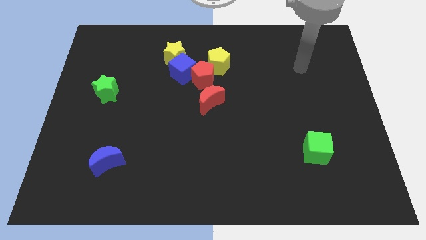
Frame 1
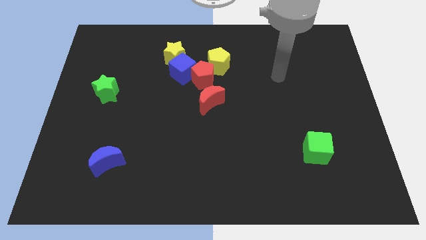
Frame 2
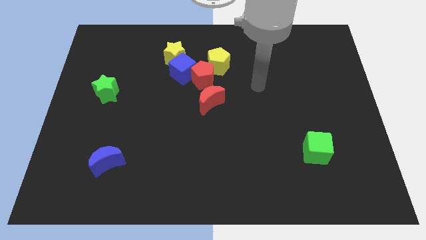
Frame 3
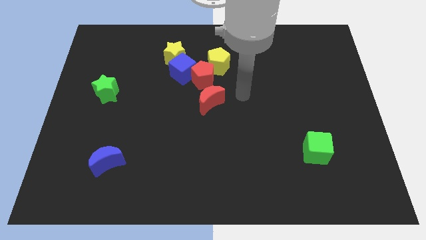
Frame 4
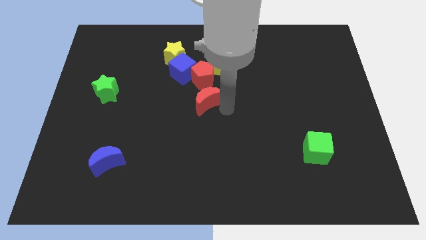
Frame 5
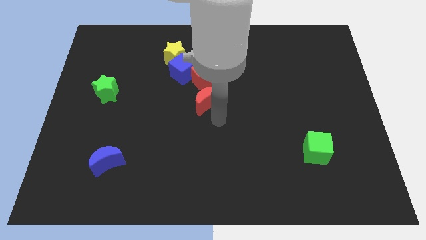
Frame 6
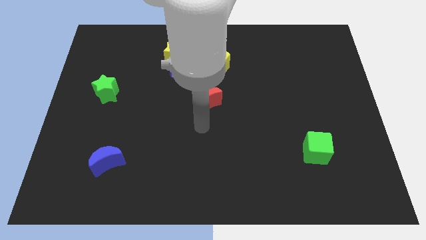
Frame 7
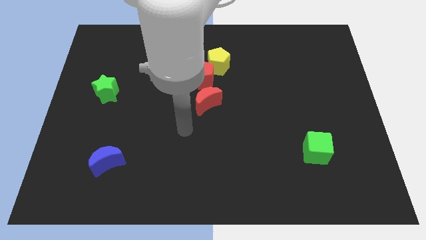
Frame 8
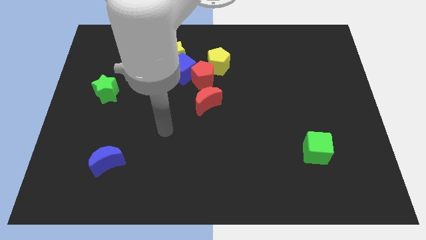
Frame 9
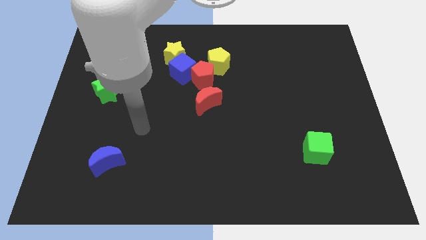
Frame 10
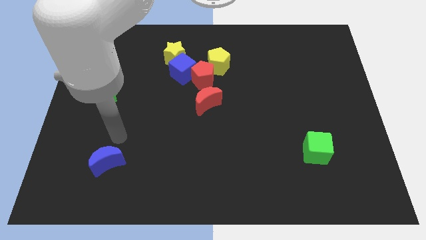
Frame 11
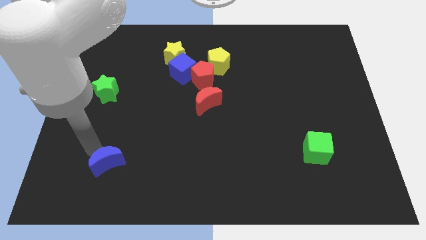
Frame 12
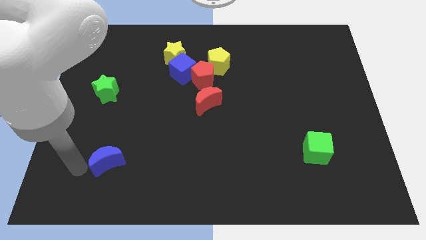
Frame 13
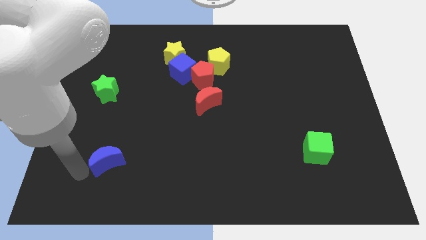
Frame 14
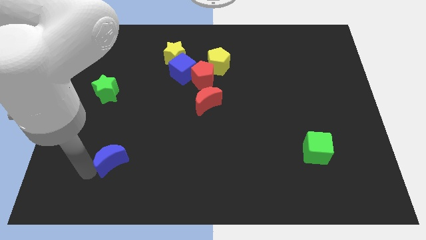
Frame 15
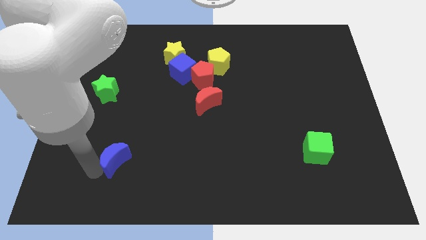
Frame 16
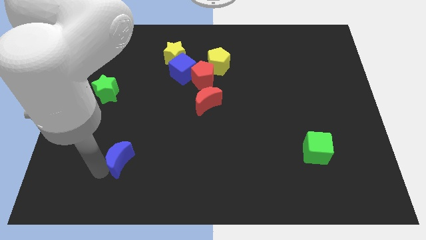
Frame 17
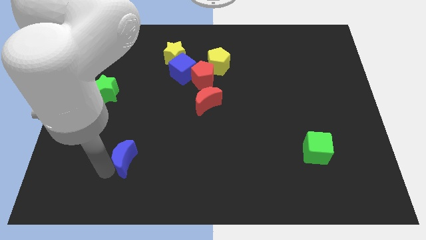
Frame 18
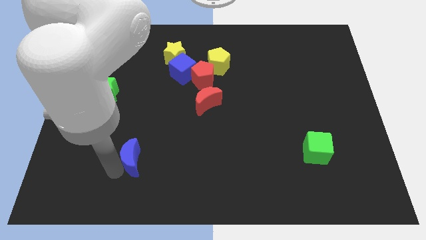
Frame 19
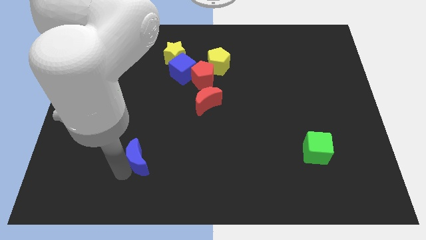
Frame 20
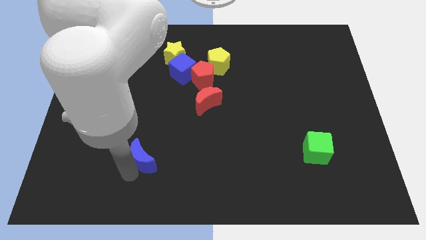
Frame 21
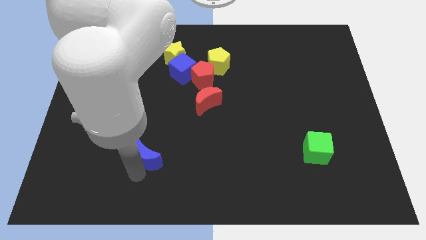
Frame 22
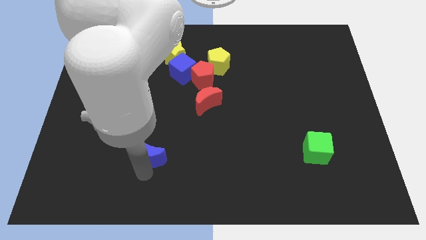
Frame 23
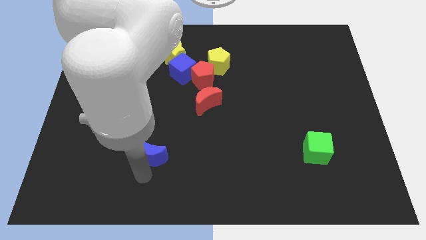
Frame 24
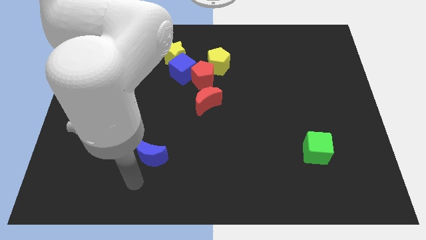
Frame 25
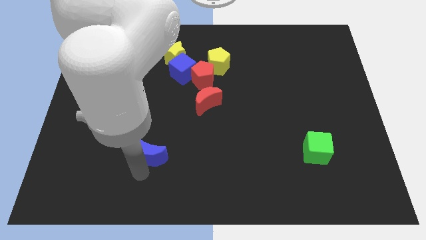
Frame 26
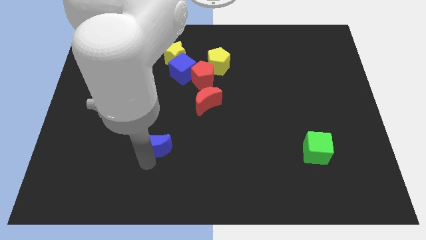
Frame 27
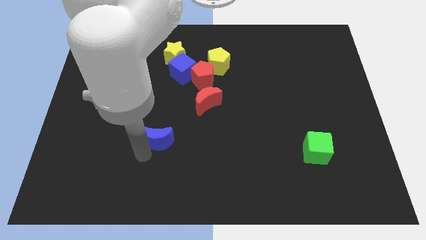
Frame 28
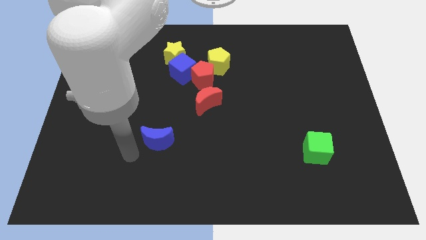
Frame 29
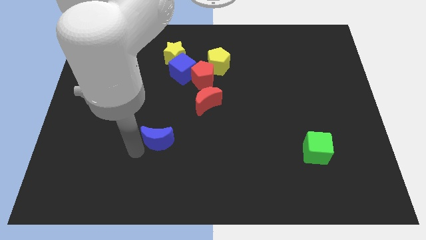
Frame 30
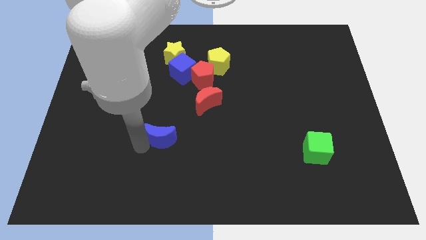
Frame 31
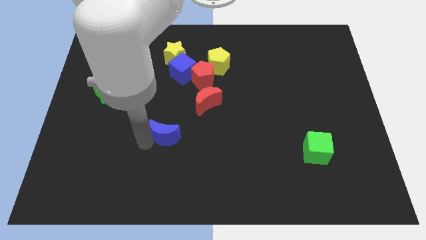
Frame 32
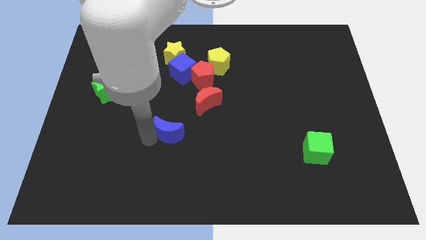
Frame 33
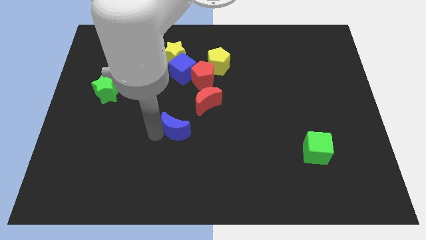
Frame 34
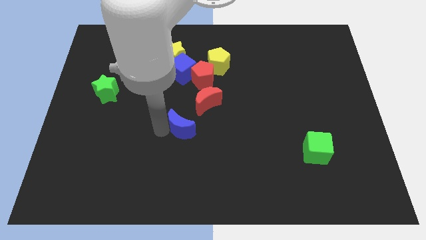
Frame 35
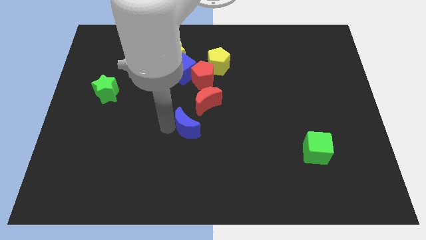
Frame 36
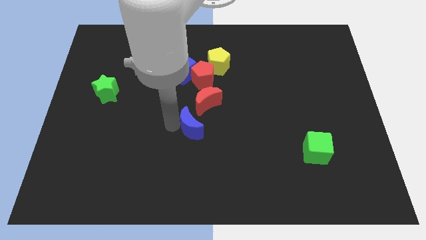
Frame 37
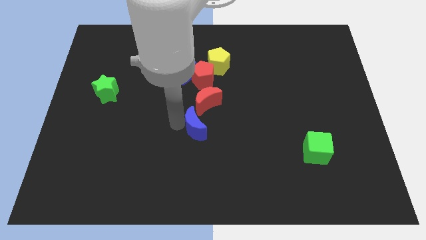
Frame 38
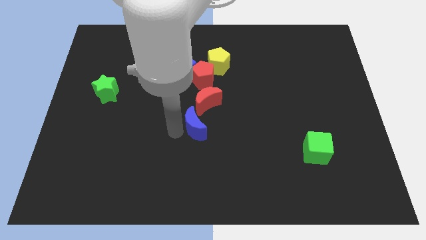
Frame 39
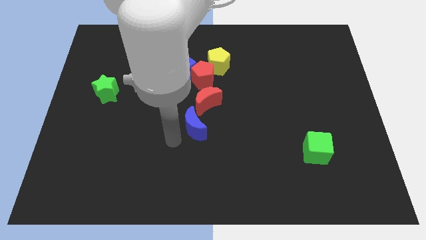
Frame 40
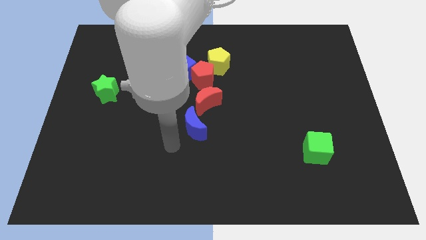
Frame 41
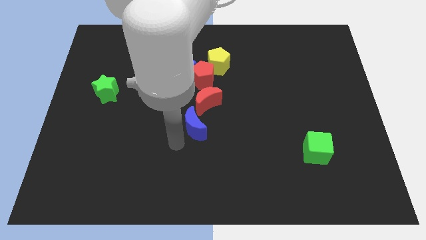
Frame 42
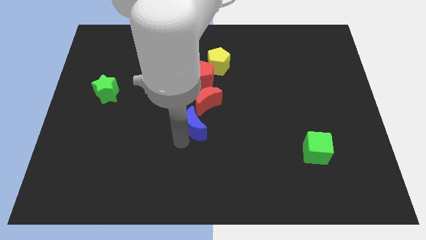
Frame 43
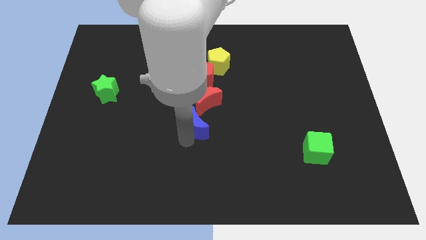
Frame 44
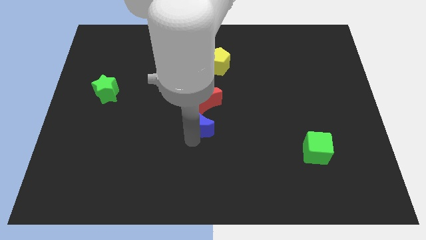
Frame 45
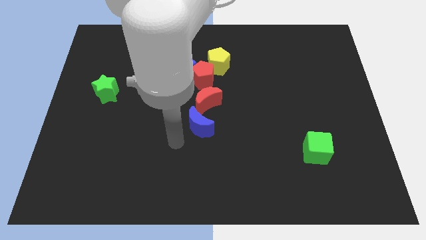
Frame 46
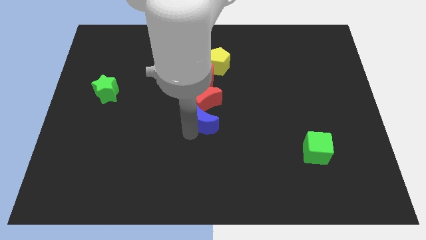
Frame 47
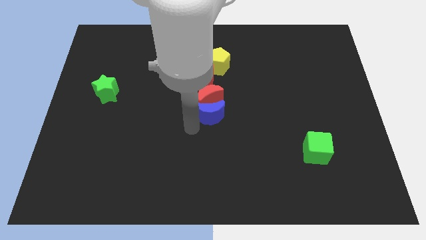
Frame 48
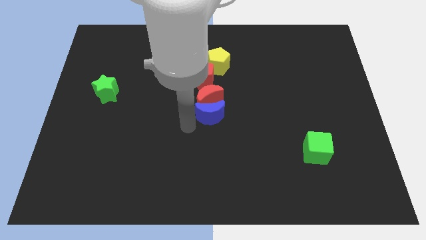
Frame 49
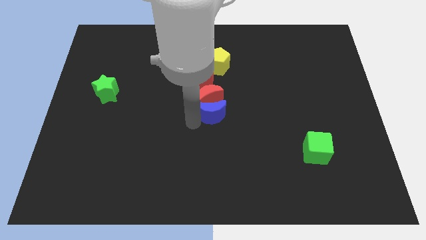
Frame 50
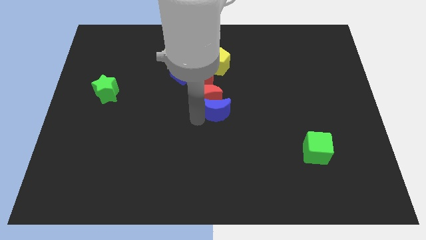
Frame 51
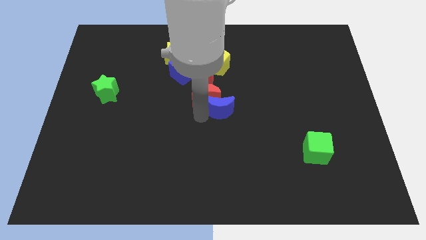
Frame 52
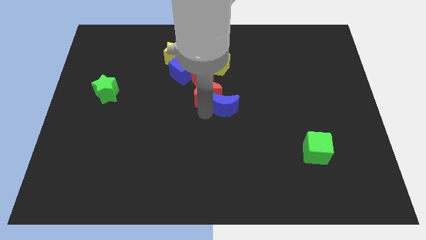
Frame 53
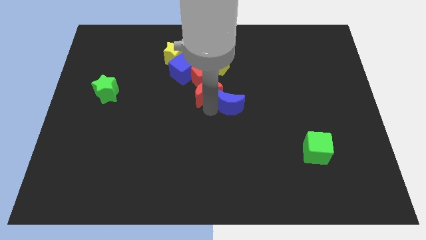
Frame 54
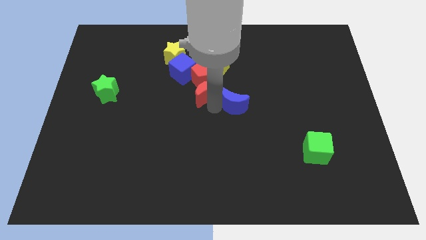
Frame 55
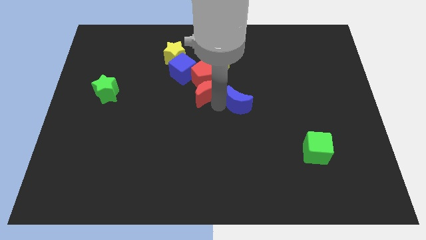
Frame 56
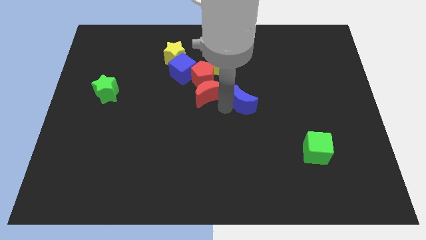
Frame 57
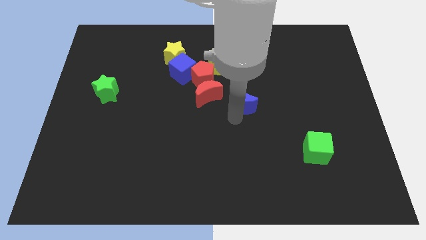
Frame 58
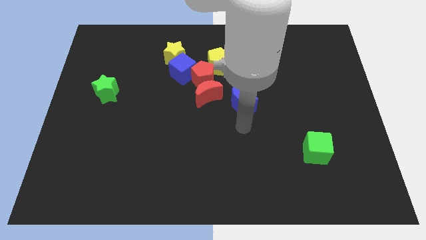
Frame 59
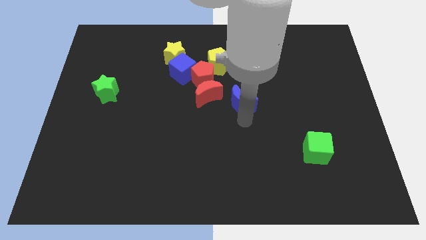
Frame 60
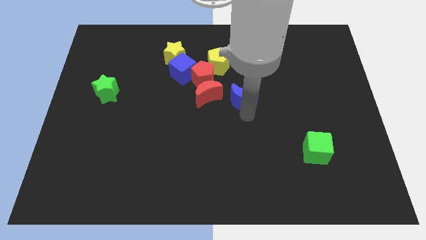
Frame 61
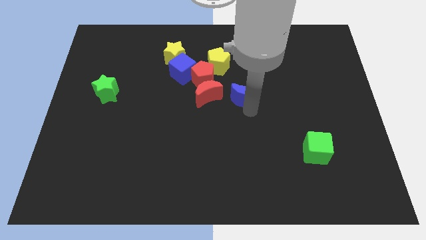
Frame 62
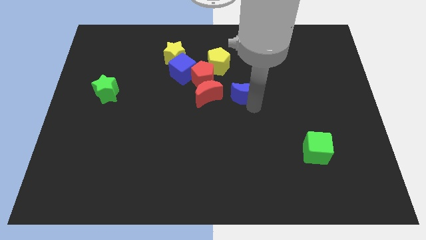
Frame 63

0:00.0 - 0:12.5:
push the blue moon diagonally down and to the right of the yellow pentagon

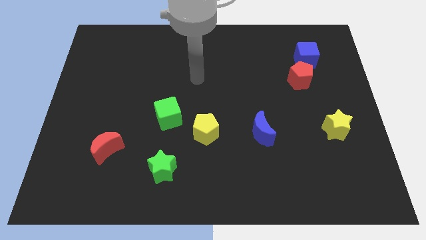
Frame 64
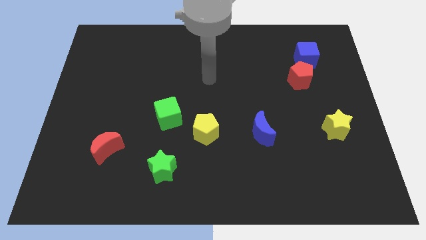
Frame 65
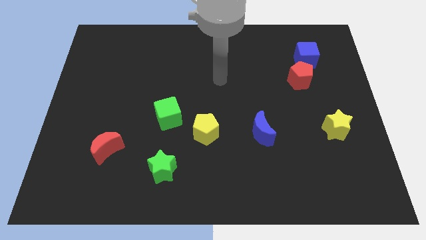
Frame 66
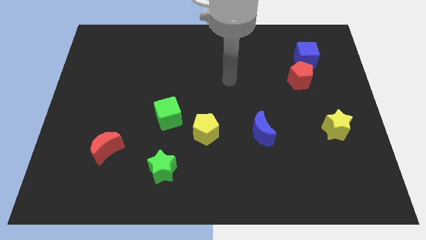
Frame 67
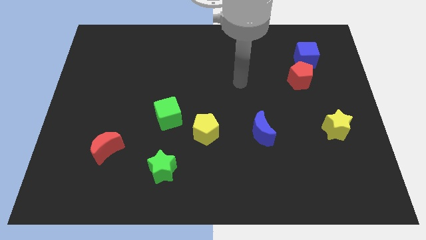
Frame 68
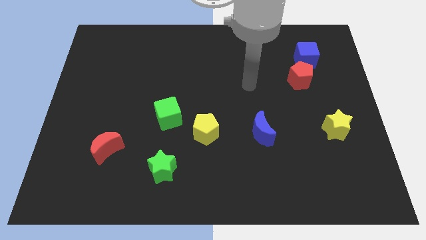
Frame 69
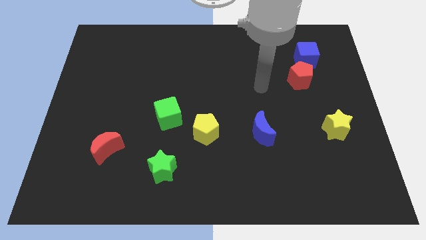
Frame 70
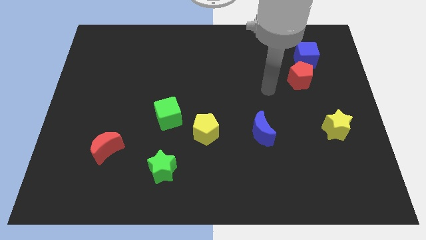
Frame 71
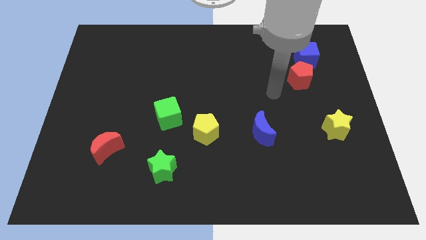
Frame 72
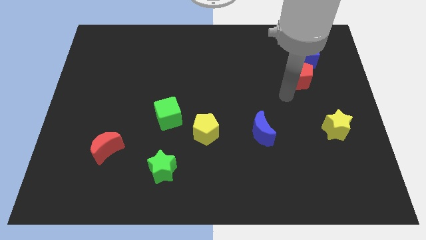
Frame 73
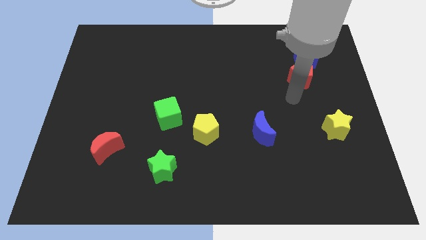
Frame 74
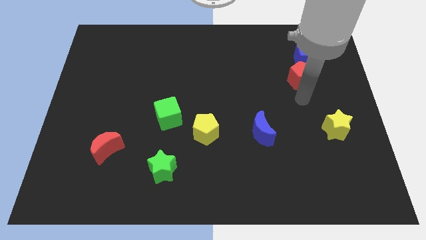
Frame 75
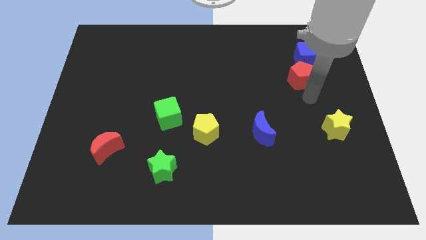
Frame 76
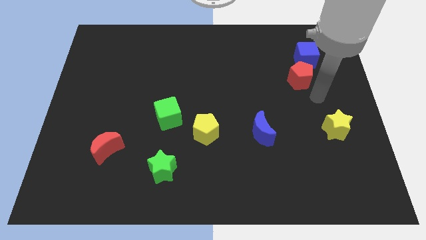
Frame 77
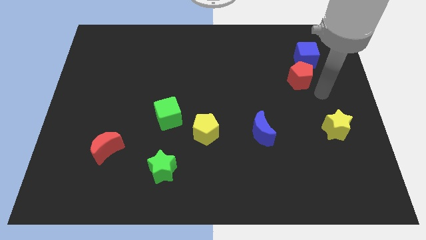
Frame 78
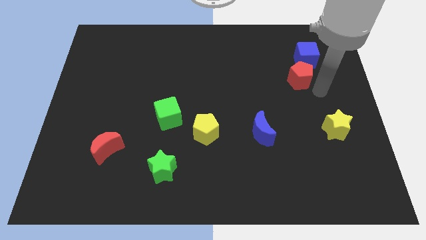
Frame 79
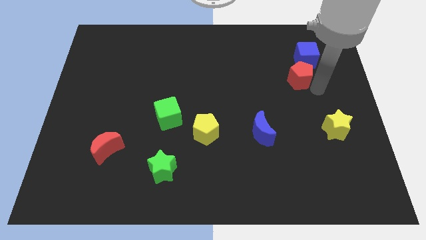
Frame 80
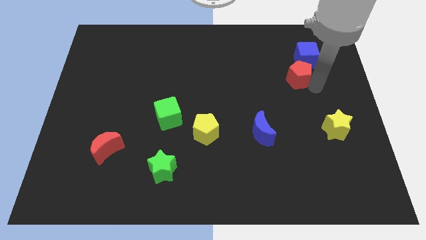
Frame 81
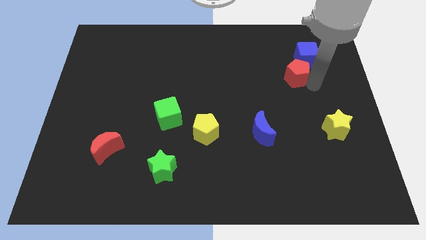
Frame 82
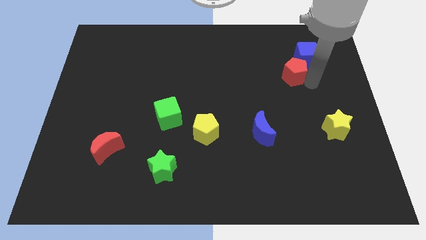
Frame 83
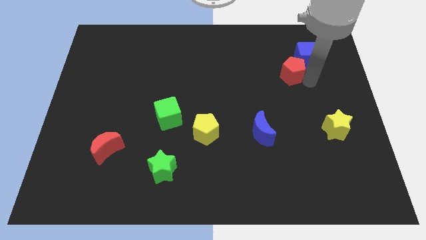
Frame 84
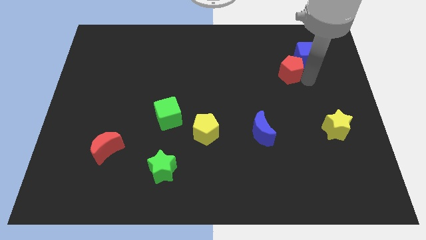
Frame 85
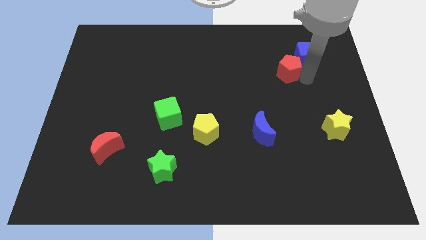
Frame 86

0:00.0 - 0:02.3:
push the red pentagon to the left side of the blue cube
